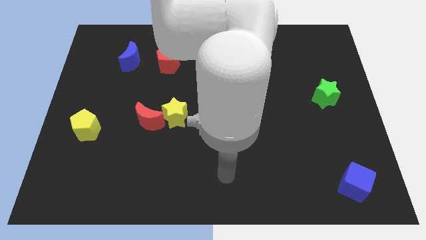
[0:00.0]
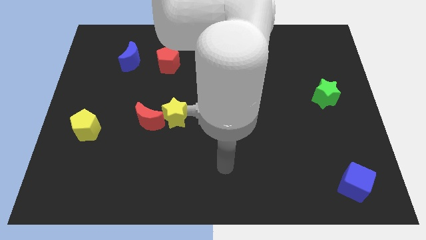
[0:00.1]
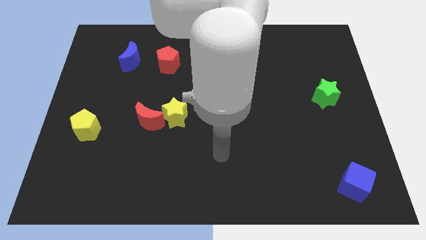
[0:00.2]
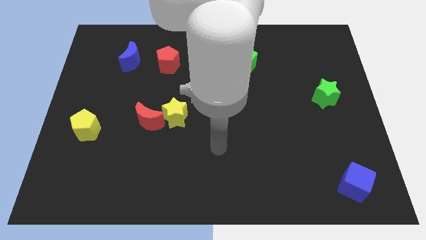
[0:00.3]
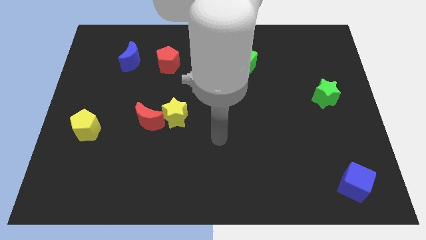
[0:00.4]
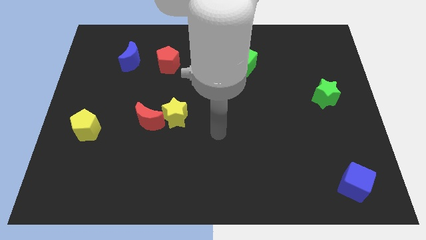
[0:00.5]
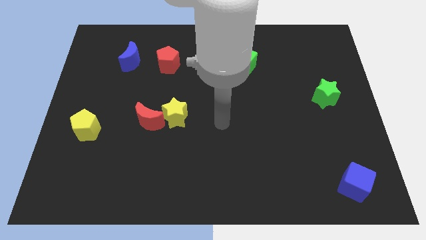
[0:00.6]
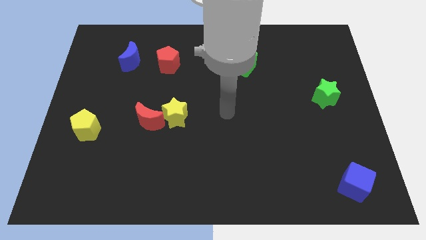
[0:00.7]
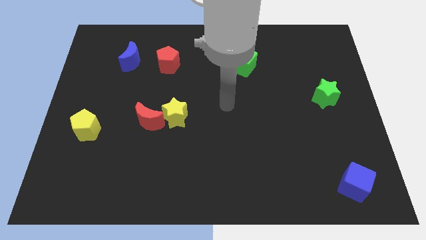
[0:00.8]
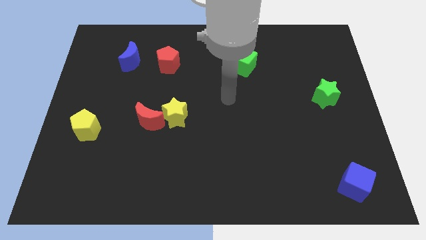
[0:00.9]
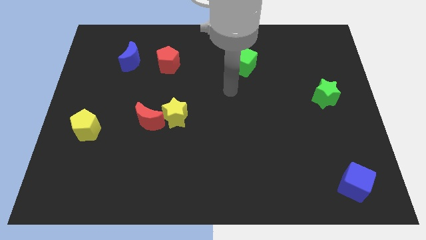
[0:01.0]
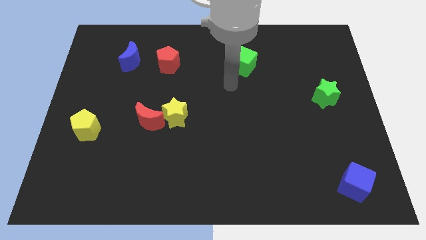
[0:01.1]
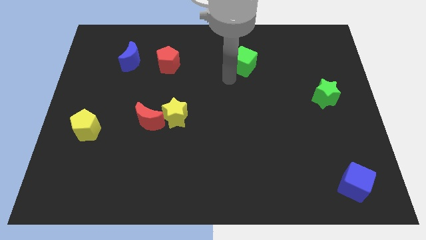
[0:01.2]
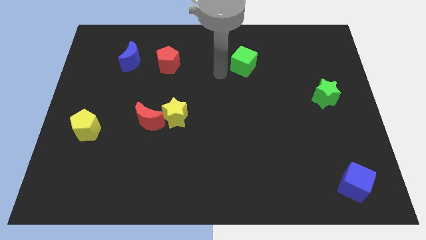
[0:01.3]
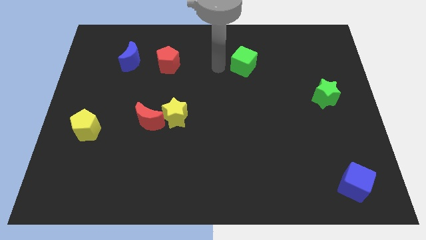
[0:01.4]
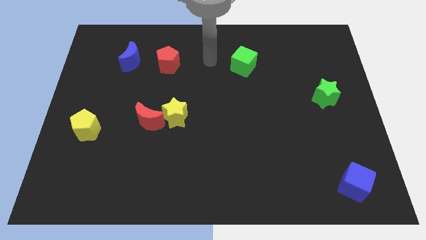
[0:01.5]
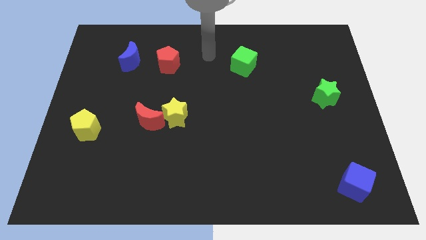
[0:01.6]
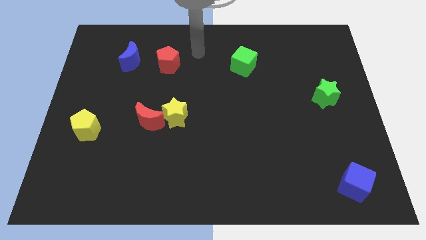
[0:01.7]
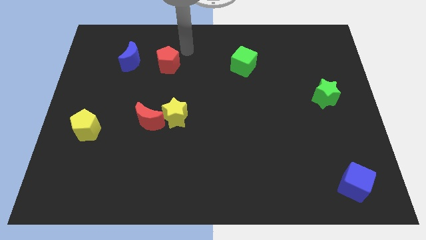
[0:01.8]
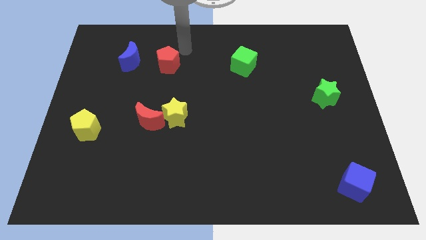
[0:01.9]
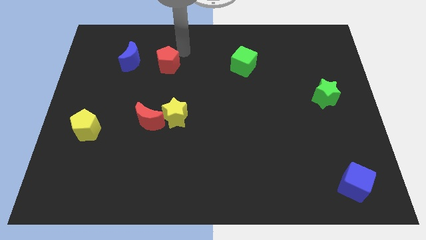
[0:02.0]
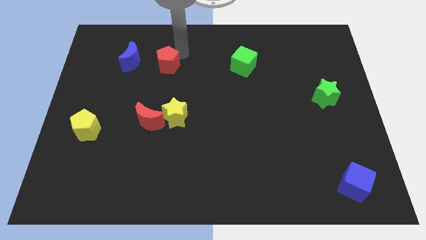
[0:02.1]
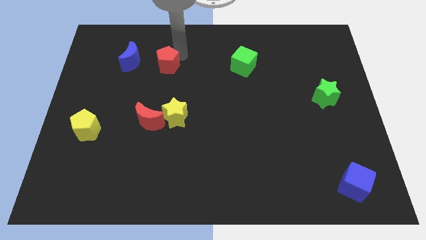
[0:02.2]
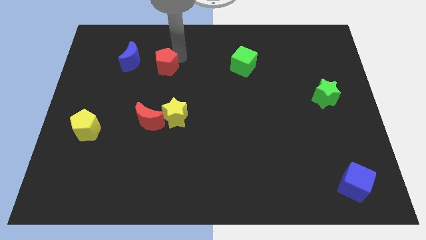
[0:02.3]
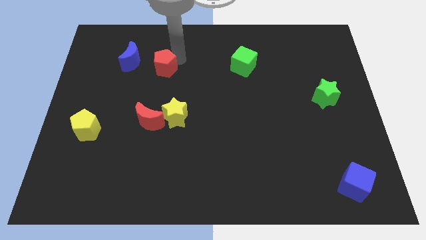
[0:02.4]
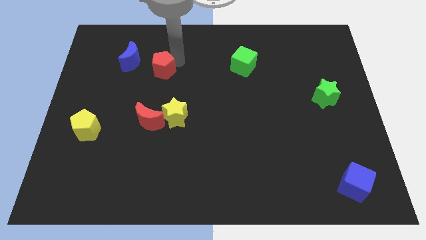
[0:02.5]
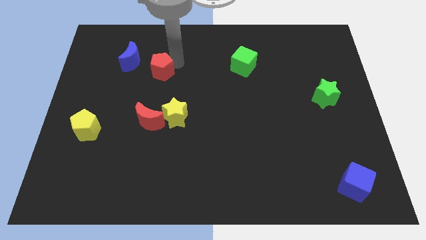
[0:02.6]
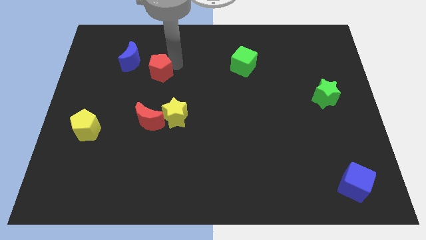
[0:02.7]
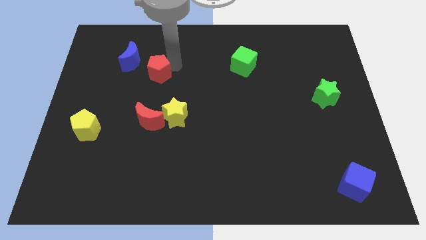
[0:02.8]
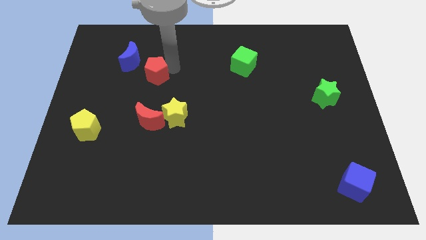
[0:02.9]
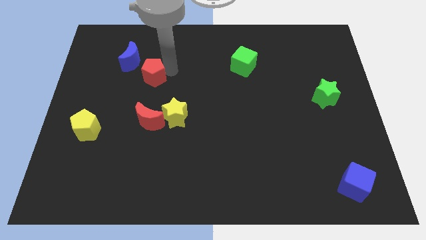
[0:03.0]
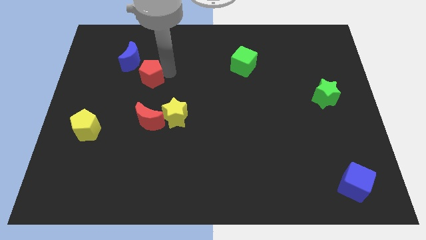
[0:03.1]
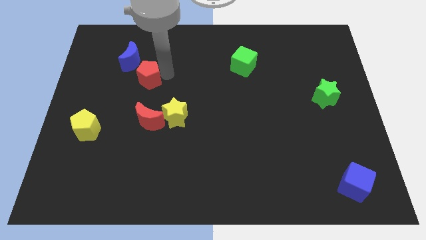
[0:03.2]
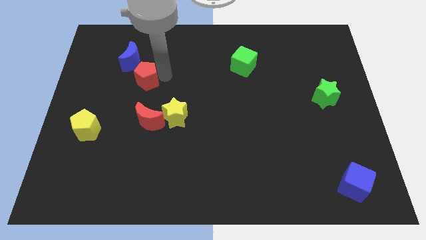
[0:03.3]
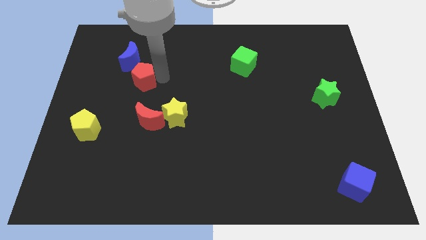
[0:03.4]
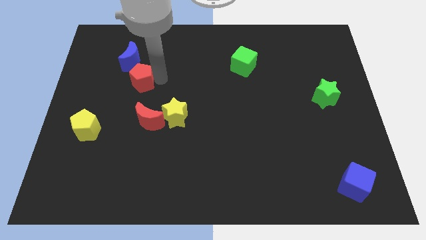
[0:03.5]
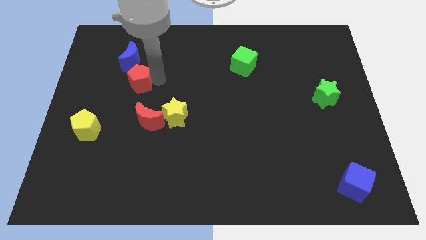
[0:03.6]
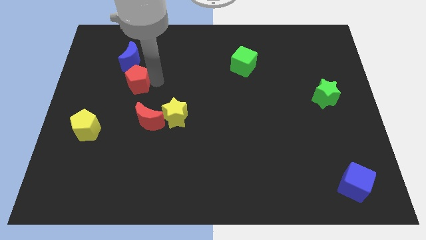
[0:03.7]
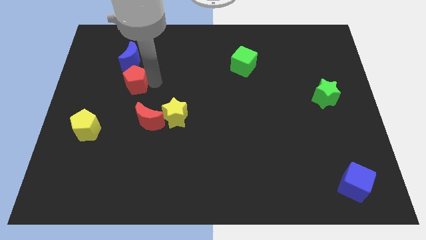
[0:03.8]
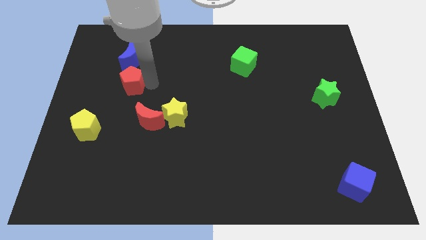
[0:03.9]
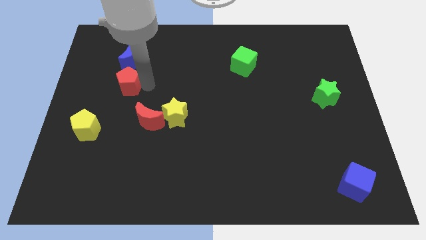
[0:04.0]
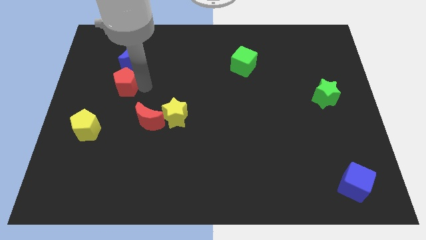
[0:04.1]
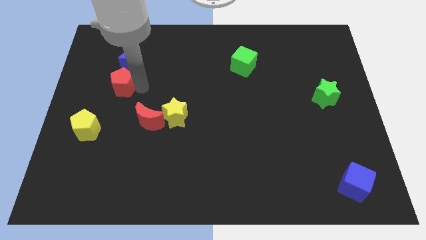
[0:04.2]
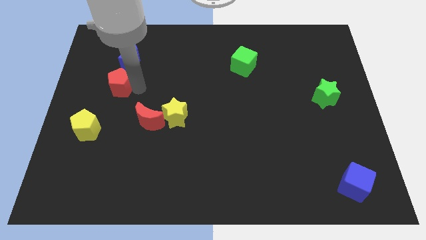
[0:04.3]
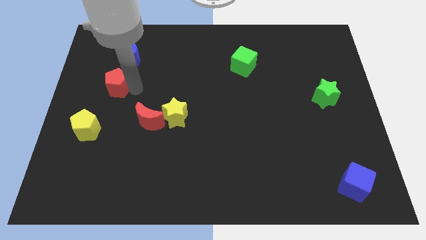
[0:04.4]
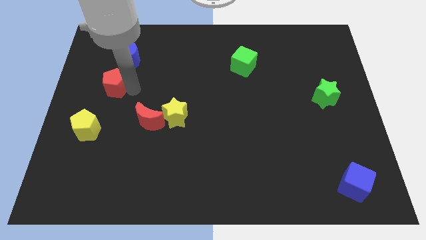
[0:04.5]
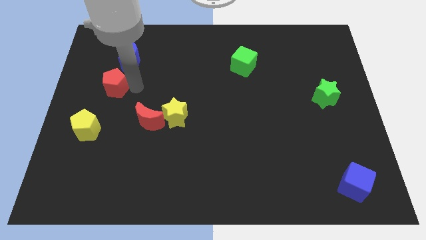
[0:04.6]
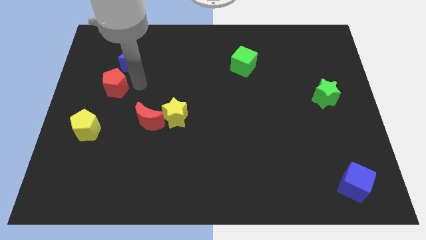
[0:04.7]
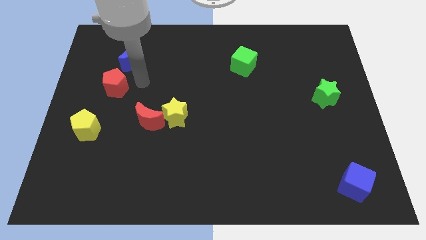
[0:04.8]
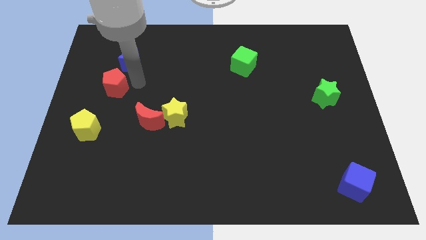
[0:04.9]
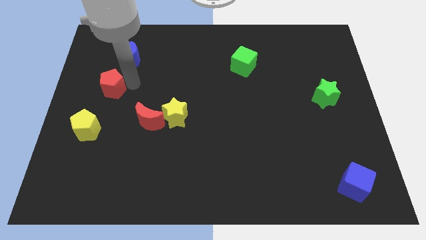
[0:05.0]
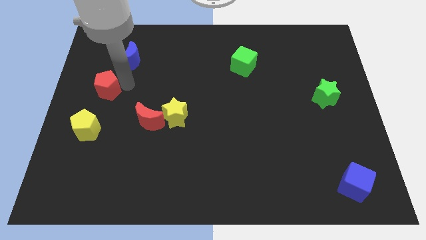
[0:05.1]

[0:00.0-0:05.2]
put the red pentagon to the left side of the board
